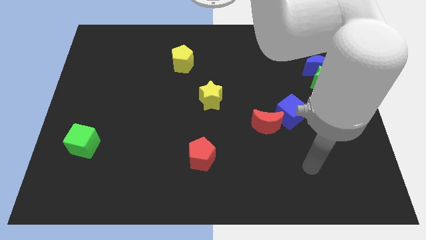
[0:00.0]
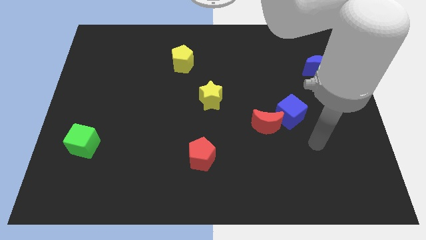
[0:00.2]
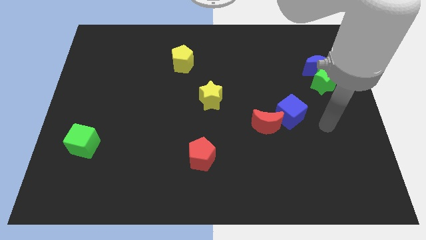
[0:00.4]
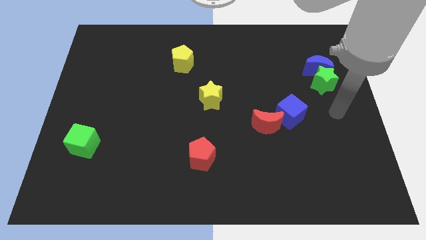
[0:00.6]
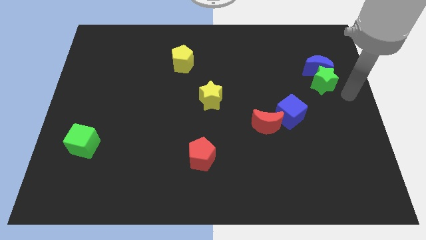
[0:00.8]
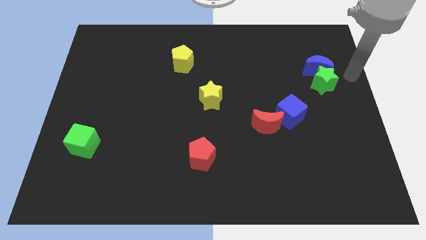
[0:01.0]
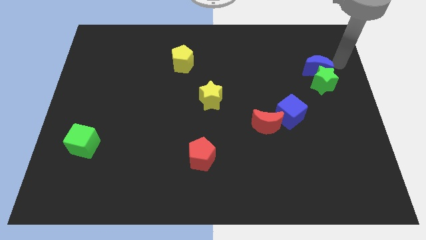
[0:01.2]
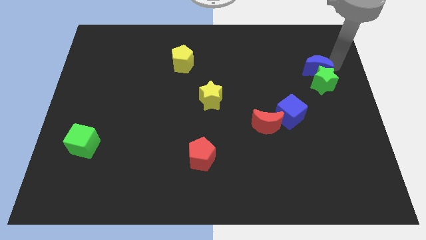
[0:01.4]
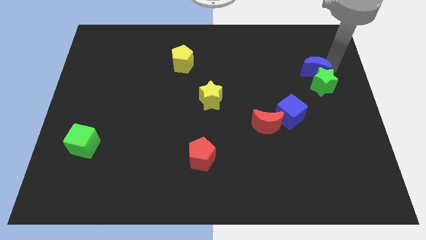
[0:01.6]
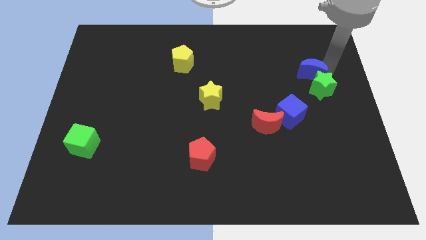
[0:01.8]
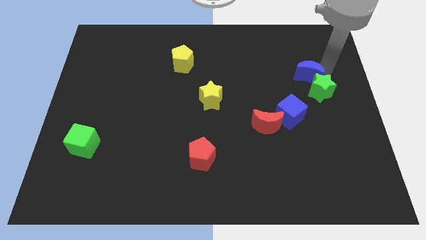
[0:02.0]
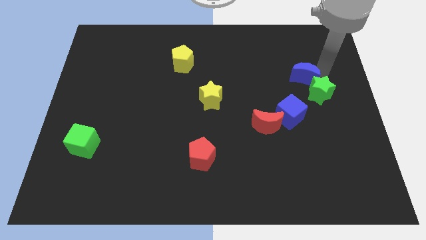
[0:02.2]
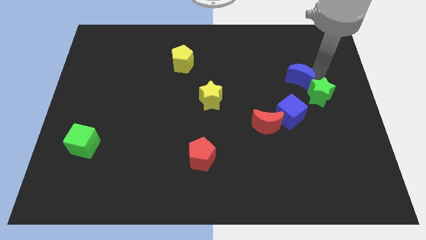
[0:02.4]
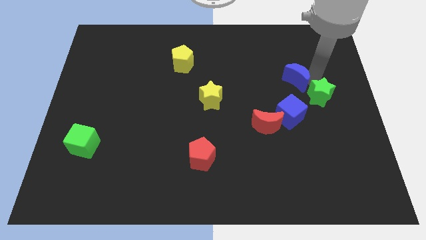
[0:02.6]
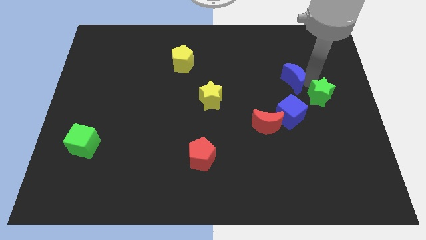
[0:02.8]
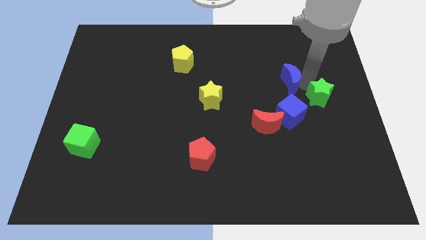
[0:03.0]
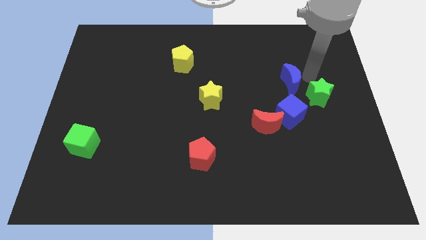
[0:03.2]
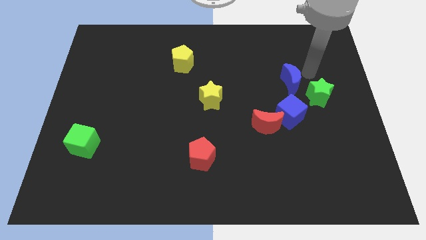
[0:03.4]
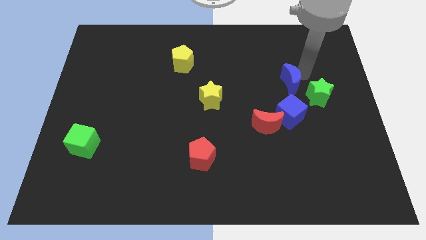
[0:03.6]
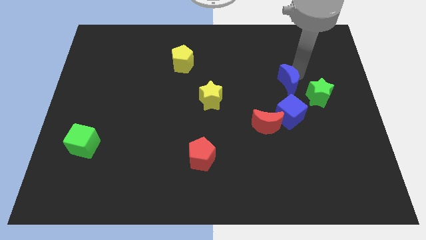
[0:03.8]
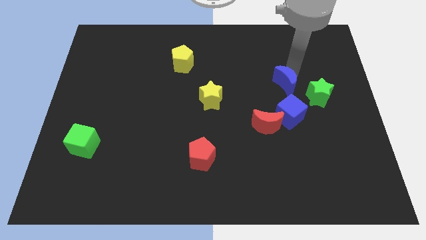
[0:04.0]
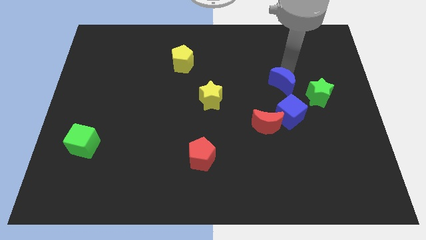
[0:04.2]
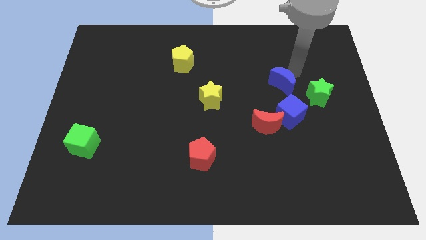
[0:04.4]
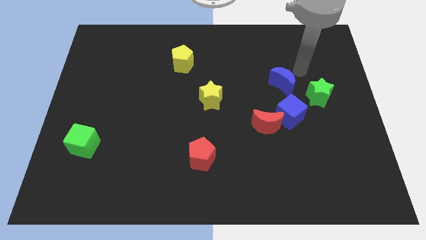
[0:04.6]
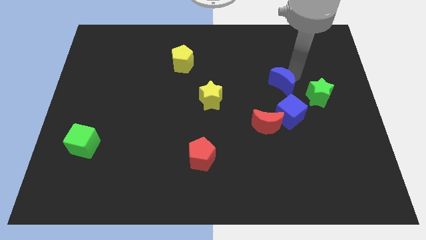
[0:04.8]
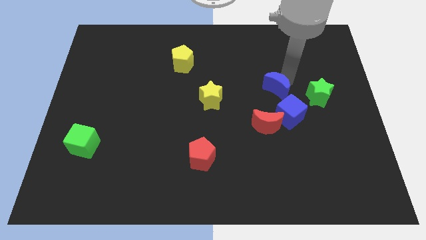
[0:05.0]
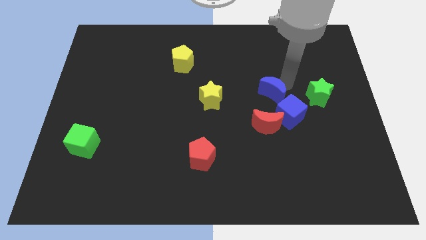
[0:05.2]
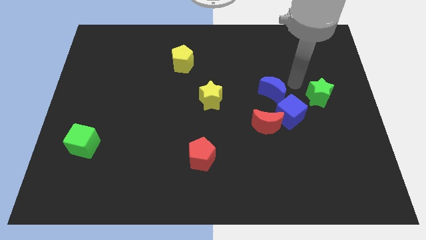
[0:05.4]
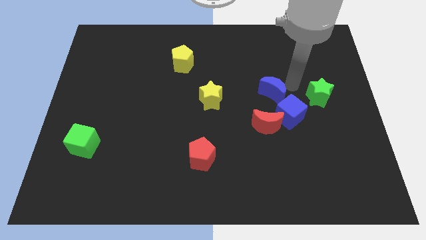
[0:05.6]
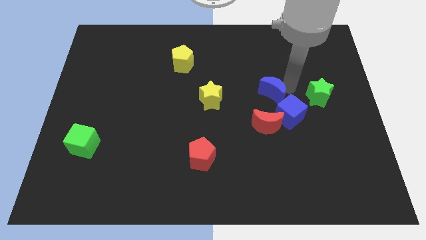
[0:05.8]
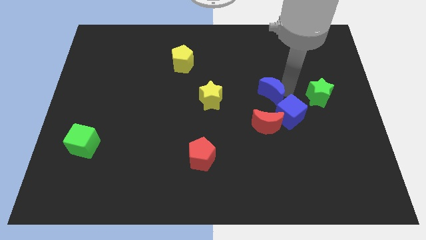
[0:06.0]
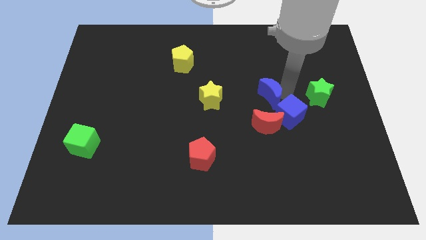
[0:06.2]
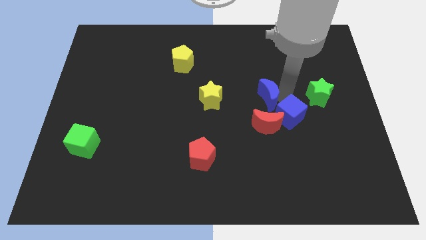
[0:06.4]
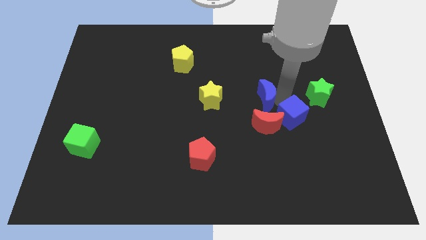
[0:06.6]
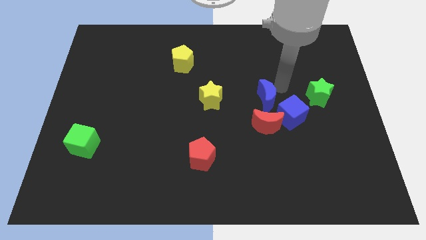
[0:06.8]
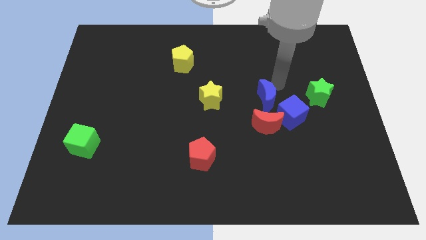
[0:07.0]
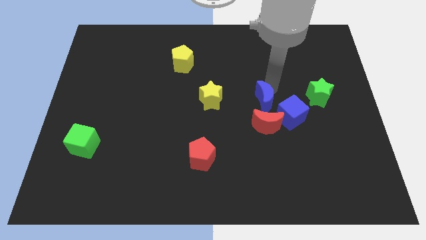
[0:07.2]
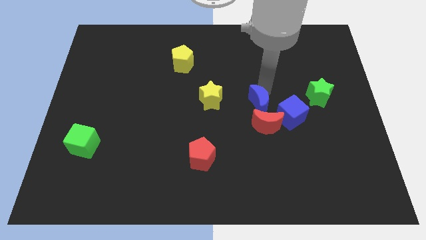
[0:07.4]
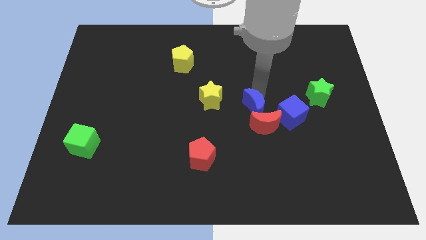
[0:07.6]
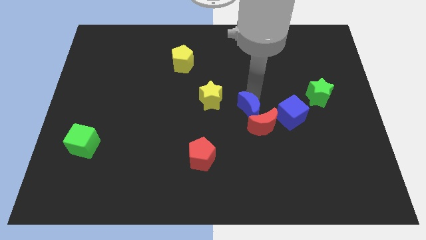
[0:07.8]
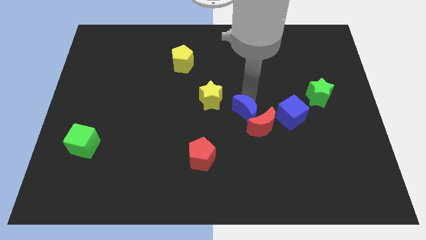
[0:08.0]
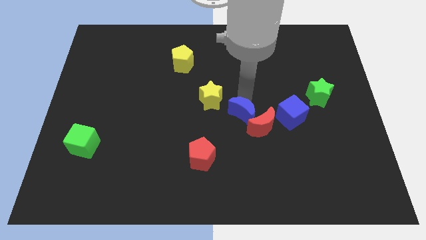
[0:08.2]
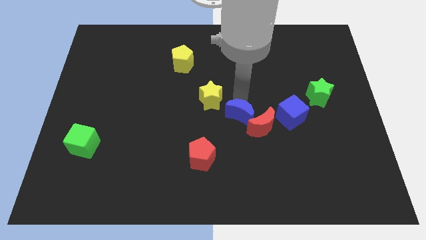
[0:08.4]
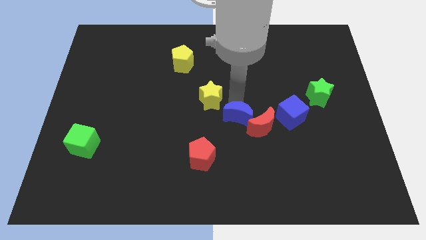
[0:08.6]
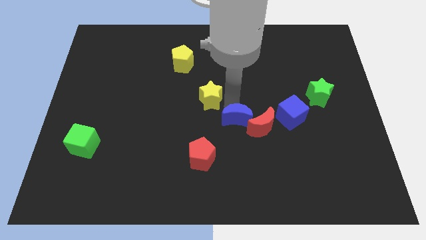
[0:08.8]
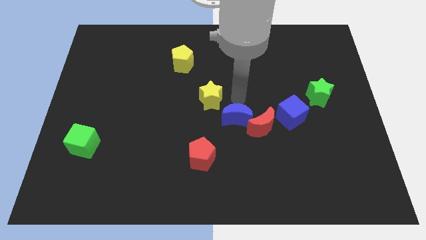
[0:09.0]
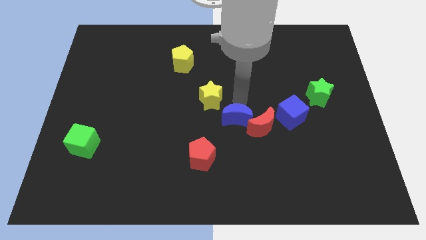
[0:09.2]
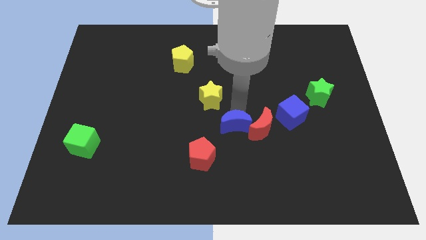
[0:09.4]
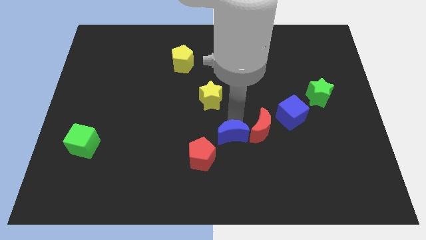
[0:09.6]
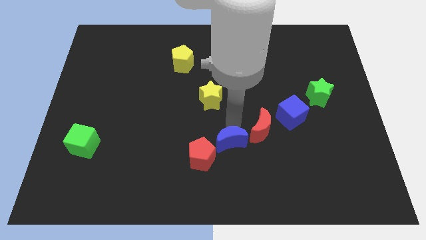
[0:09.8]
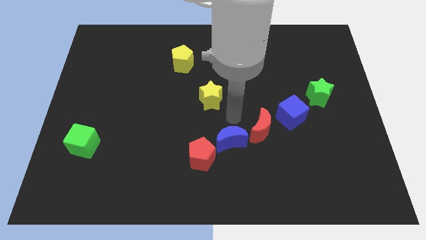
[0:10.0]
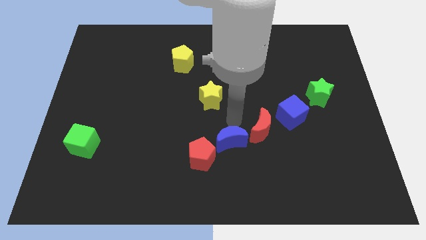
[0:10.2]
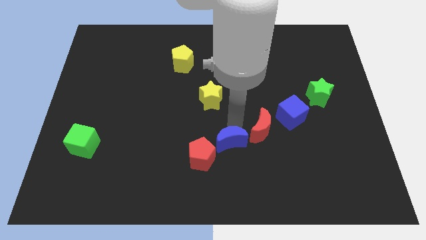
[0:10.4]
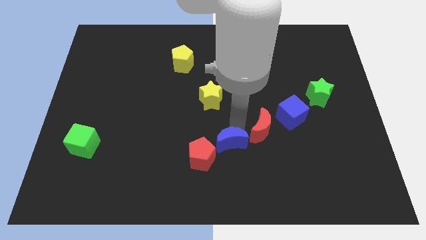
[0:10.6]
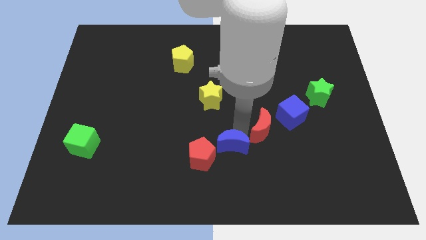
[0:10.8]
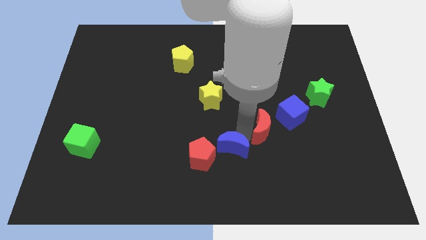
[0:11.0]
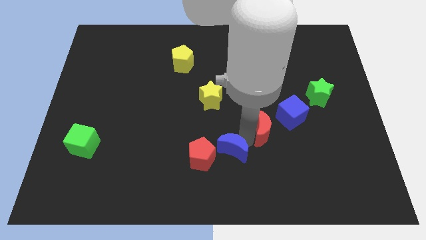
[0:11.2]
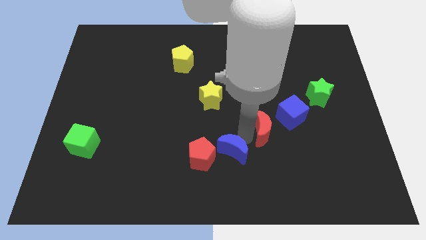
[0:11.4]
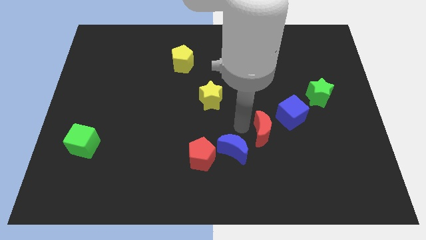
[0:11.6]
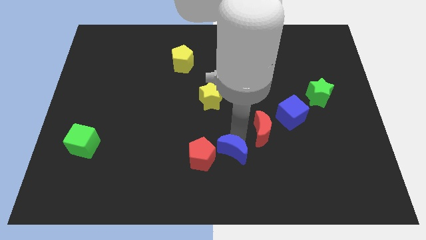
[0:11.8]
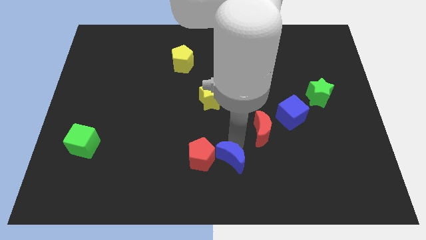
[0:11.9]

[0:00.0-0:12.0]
push the blue moon to the bottom side
